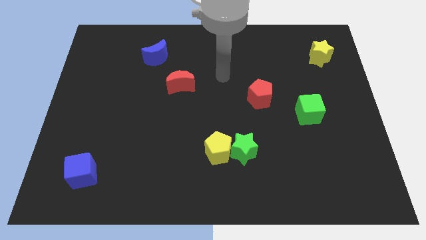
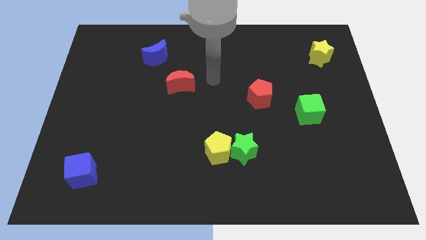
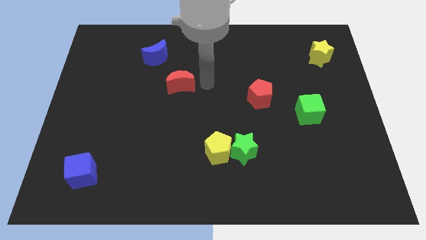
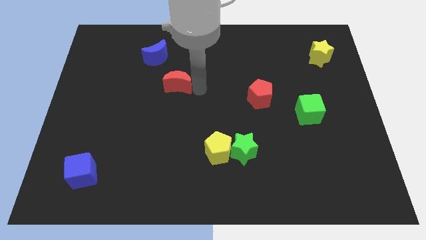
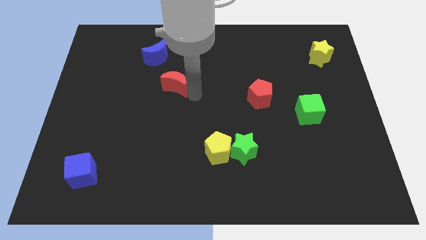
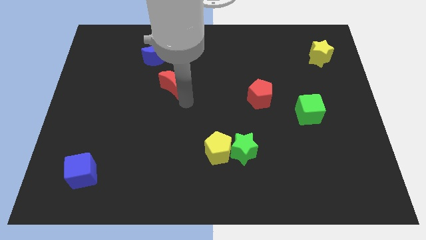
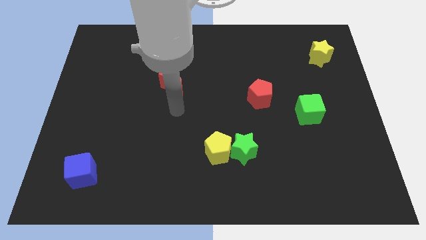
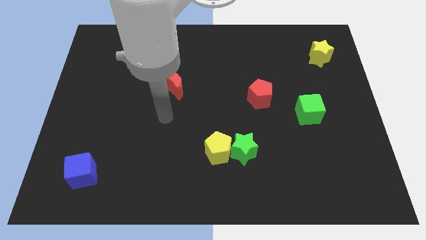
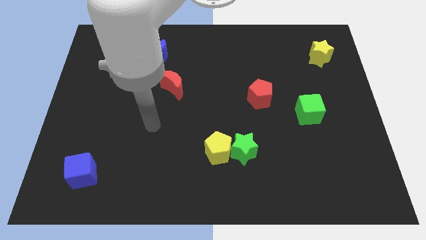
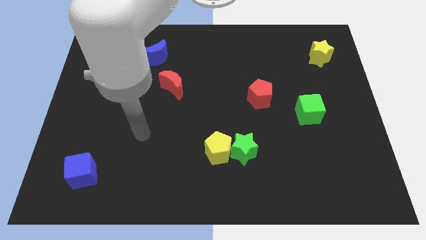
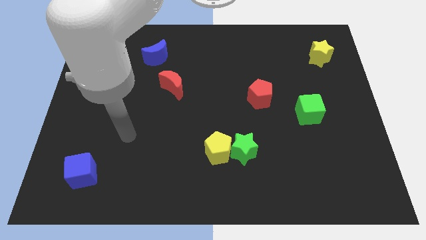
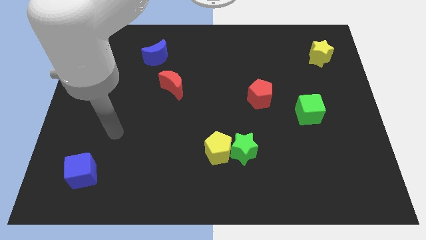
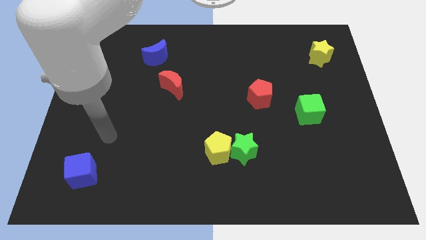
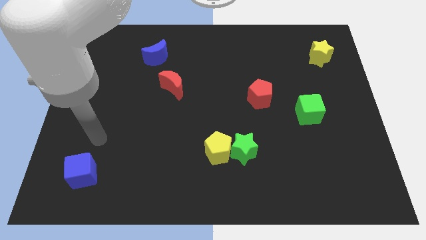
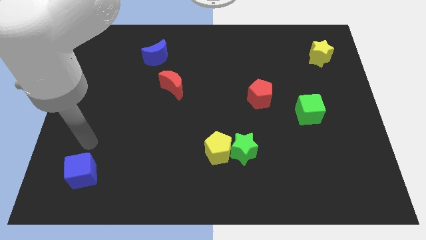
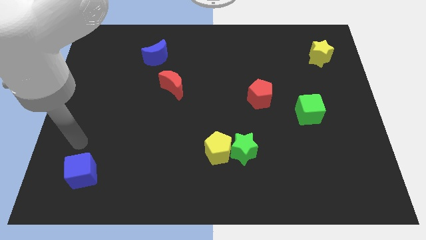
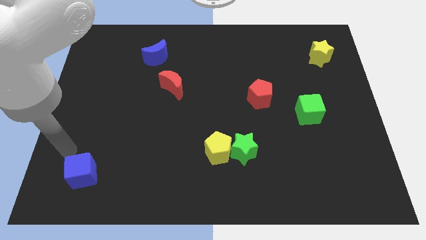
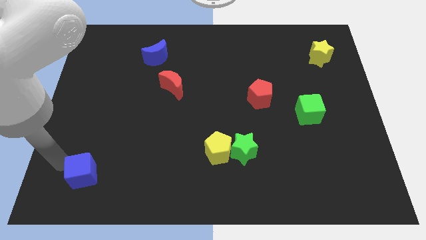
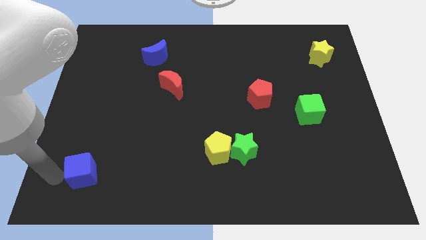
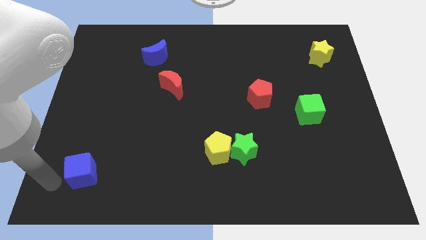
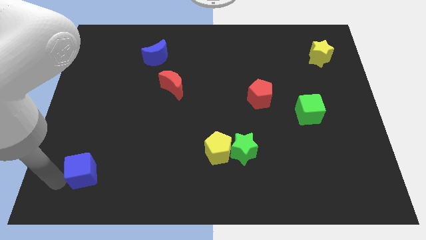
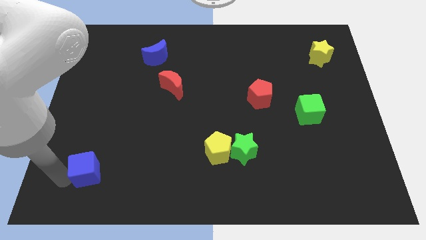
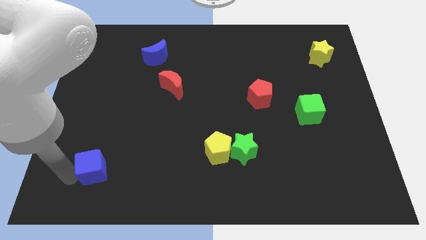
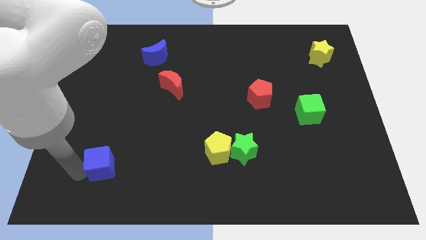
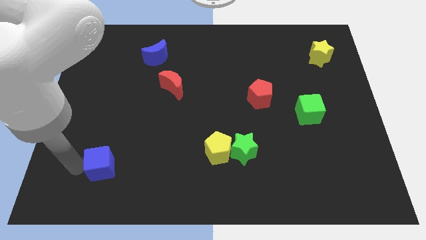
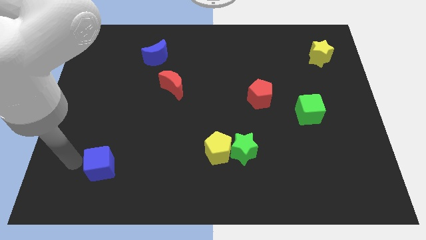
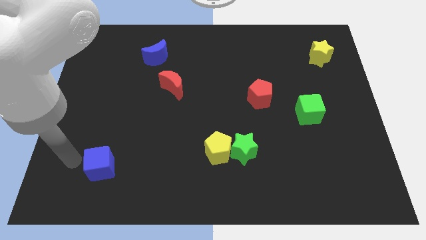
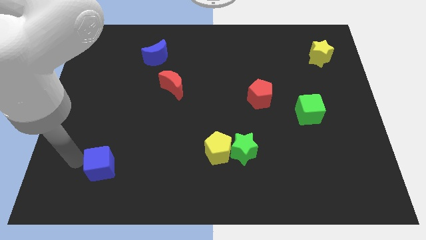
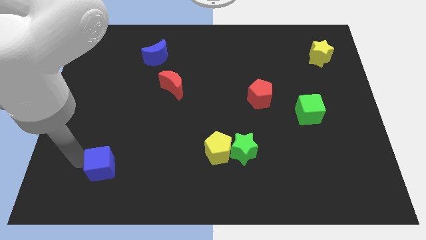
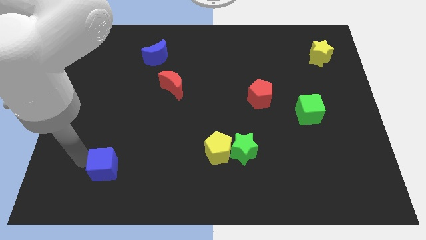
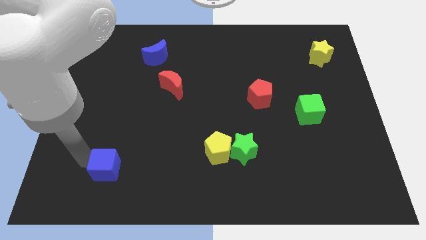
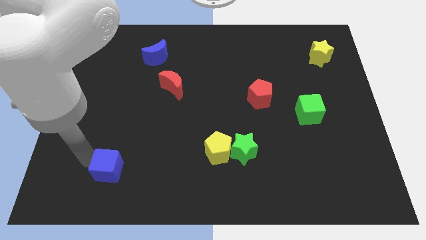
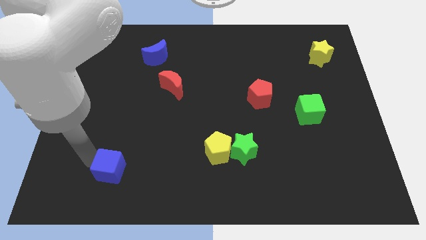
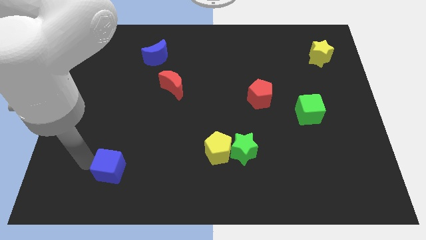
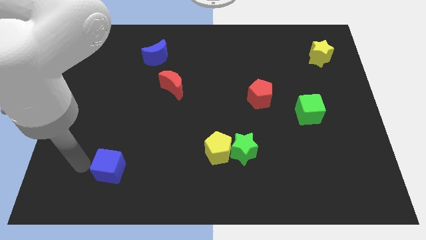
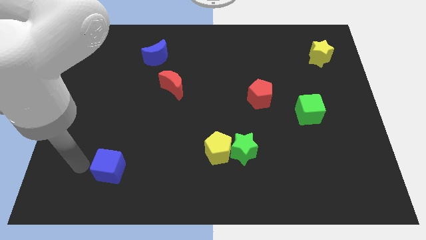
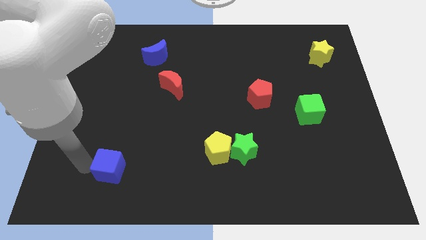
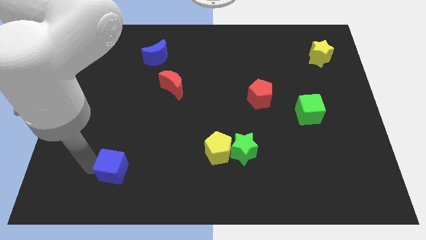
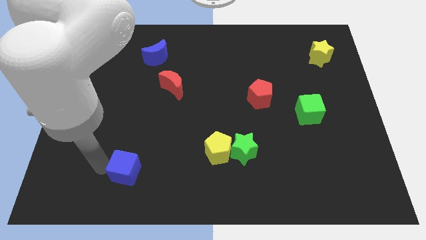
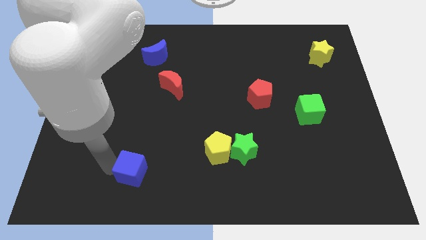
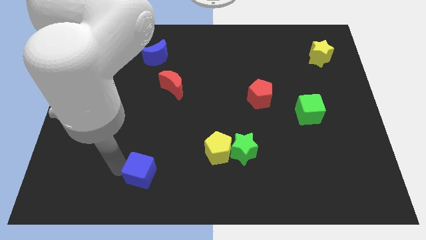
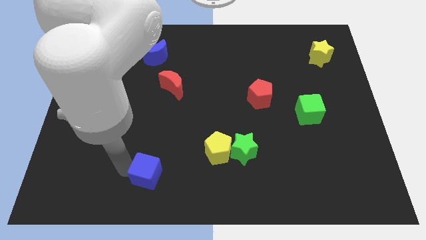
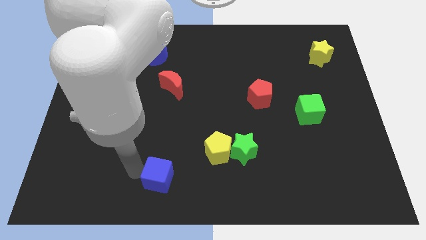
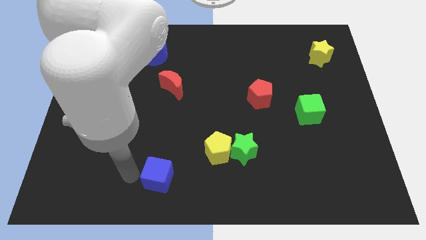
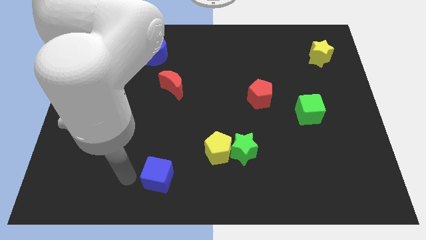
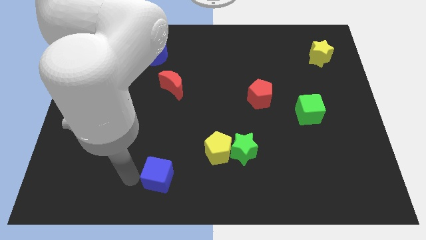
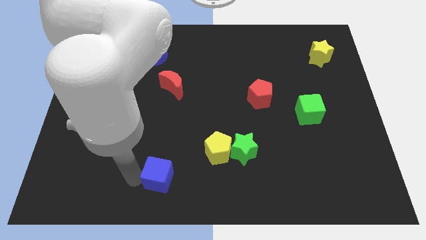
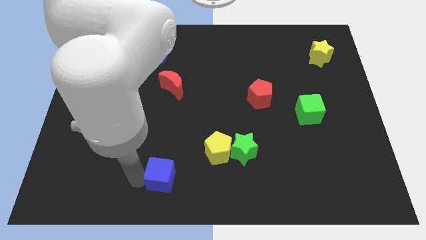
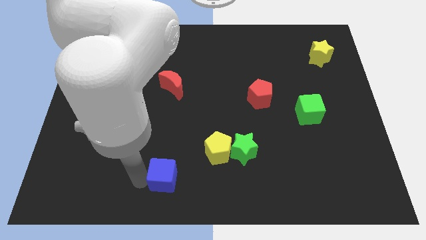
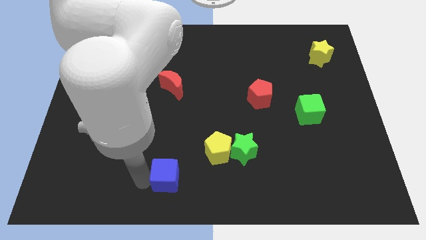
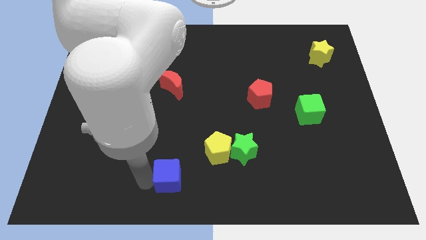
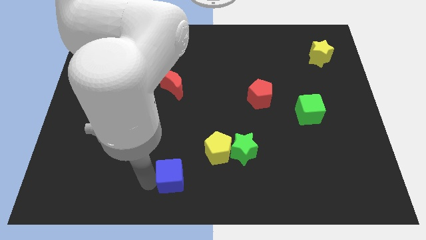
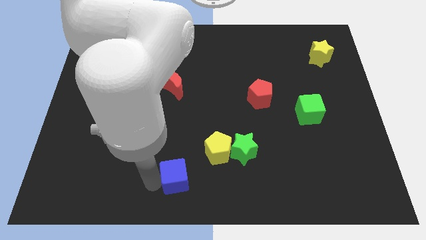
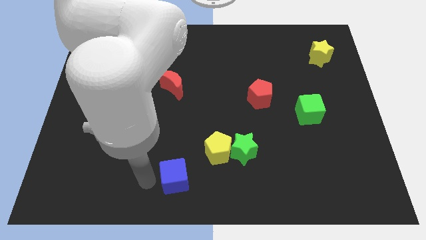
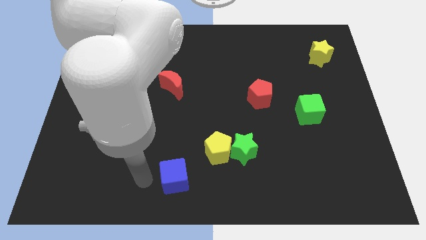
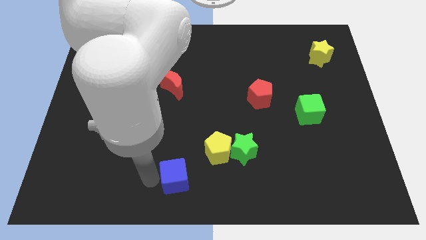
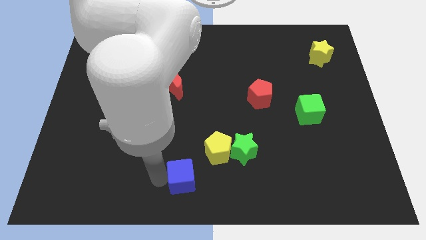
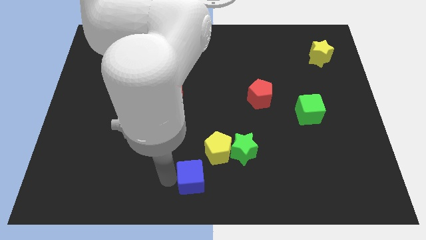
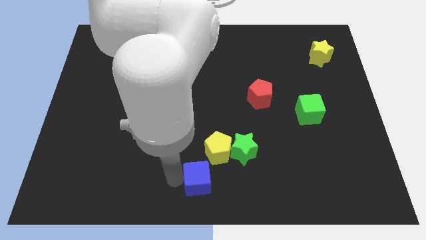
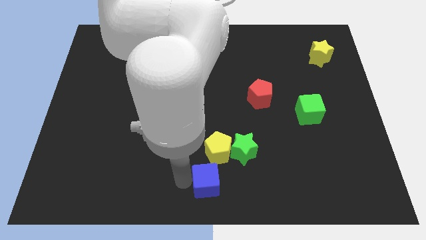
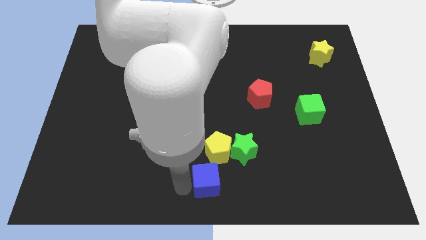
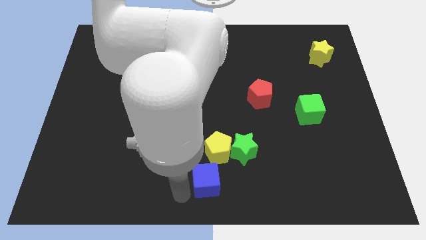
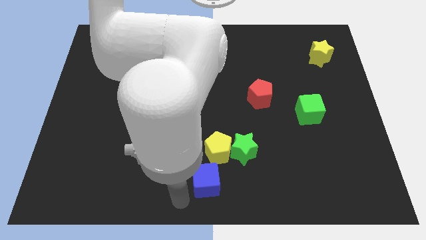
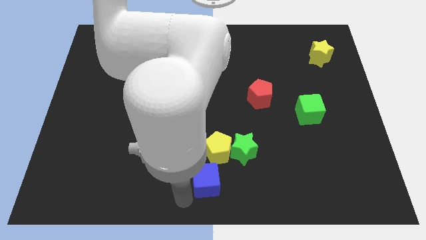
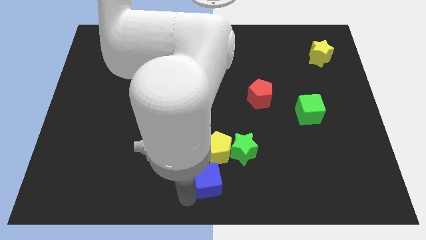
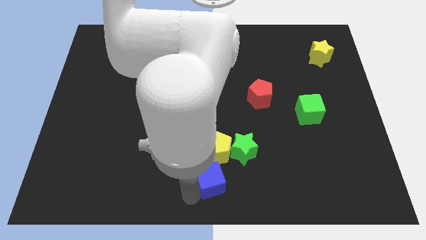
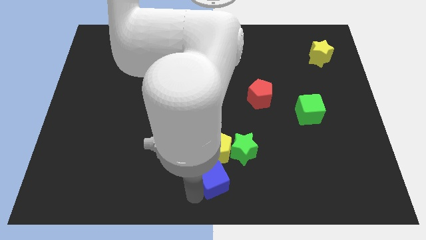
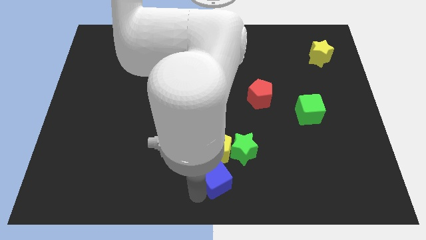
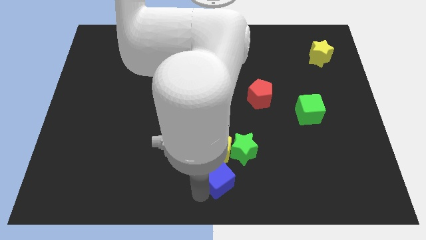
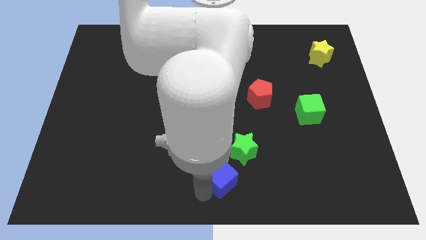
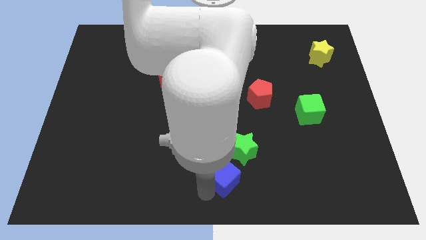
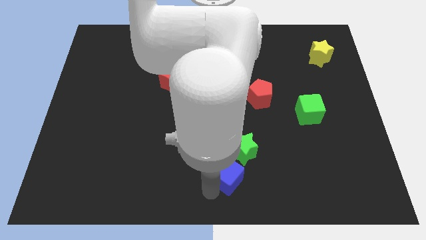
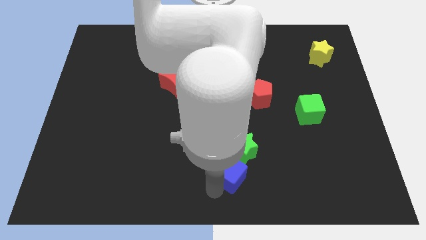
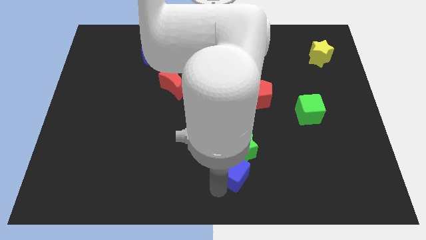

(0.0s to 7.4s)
move the blue cube next to the green star

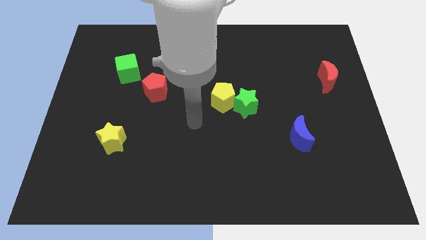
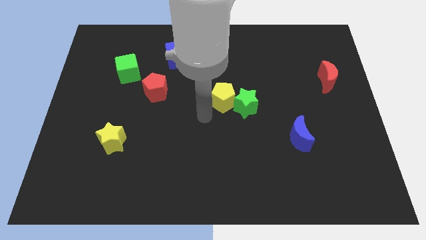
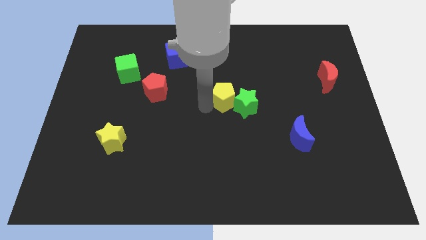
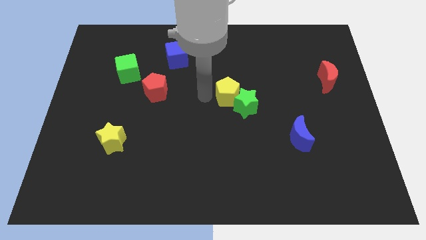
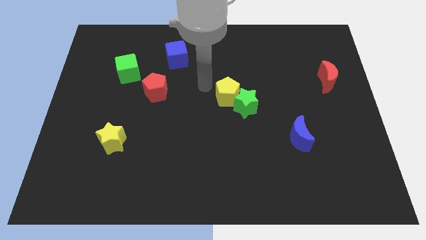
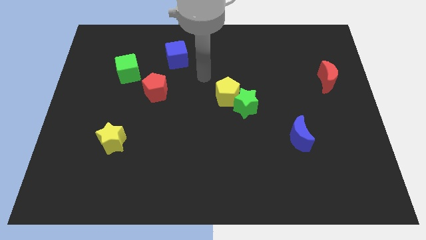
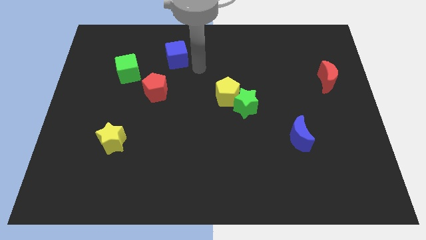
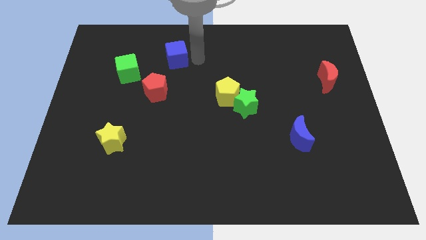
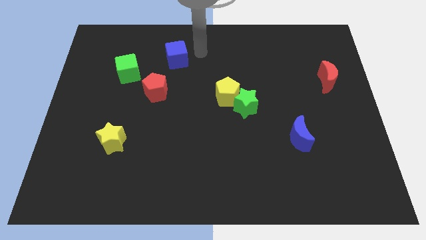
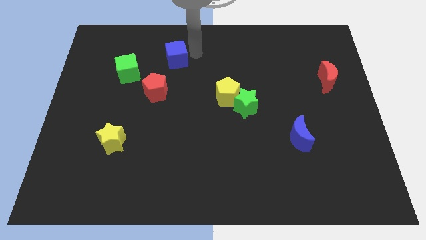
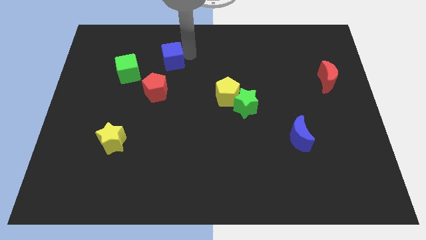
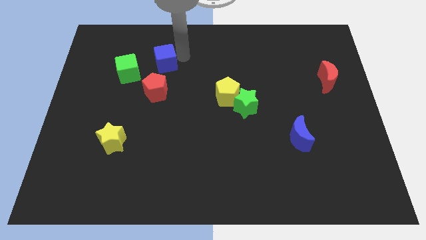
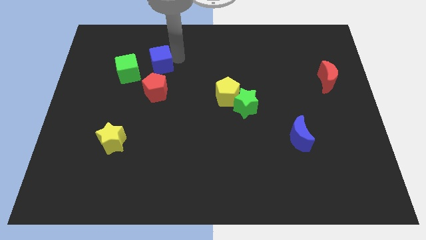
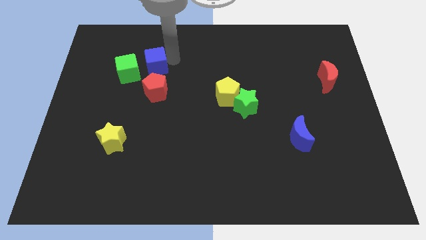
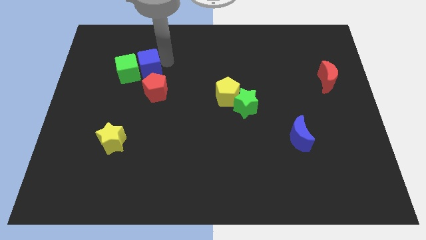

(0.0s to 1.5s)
put the blue cube to the green cube
